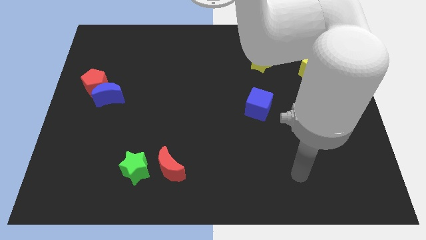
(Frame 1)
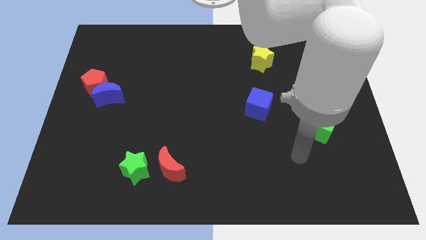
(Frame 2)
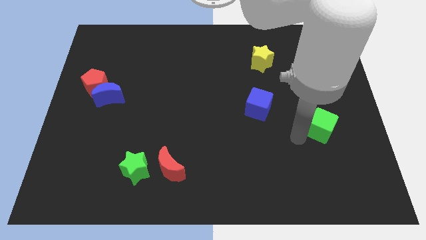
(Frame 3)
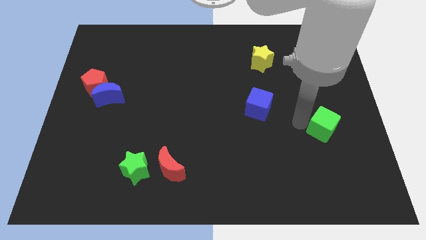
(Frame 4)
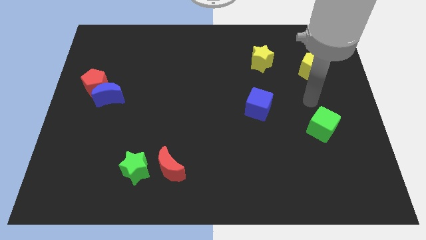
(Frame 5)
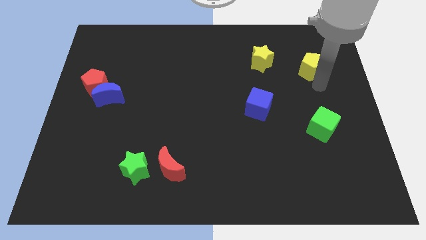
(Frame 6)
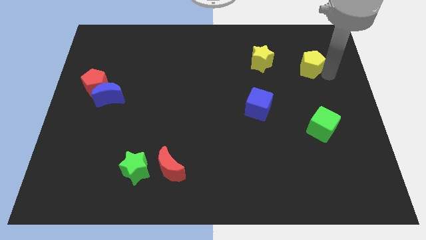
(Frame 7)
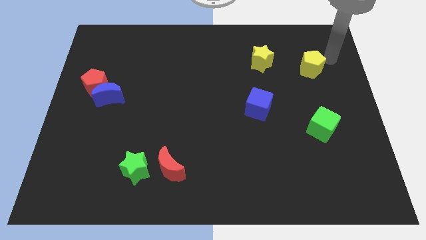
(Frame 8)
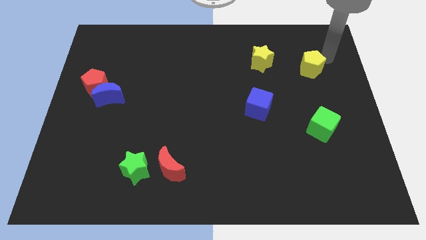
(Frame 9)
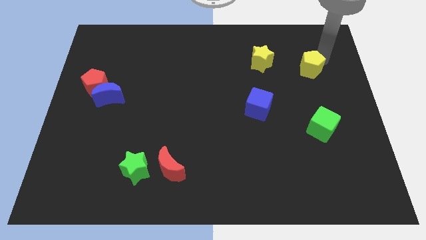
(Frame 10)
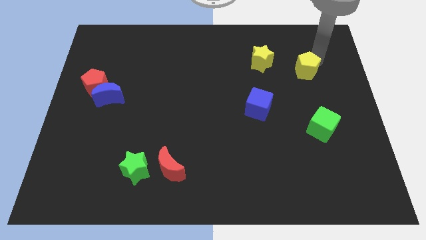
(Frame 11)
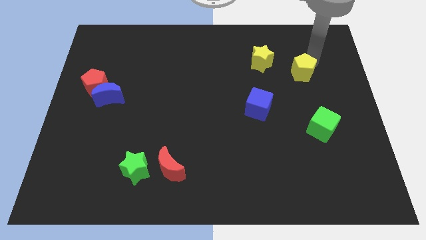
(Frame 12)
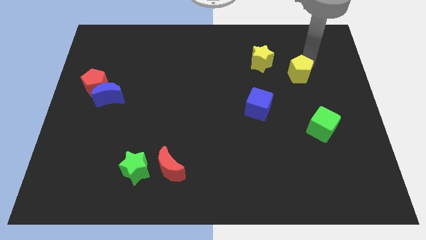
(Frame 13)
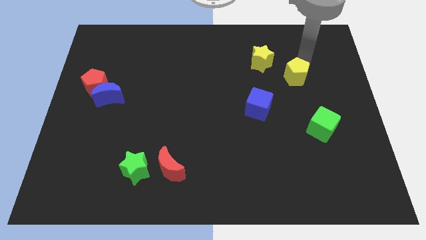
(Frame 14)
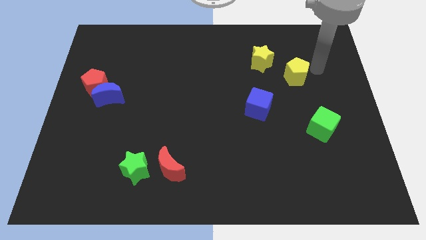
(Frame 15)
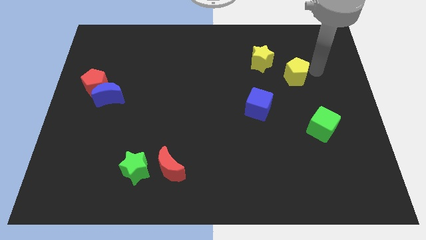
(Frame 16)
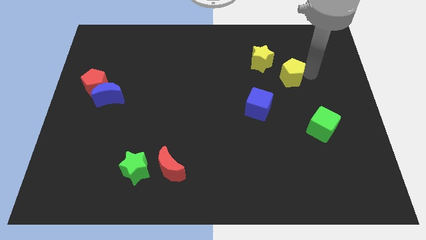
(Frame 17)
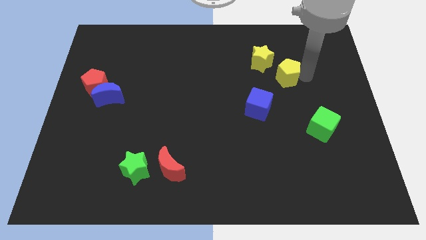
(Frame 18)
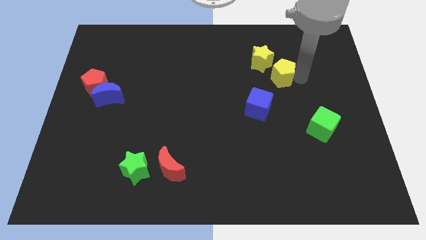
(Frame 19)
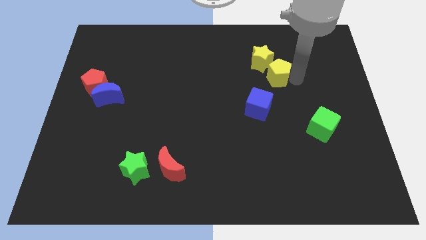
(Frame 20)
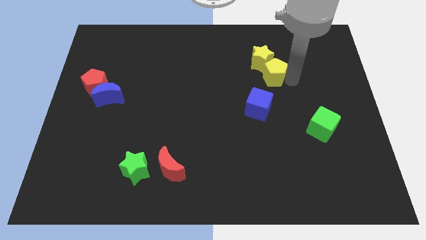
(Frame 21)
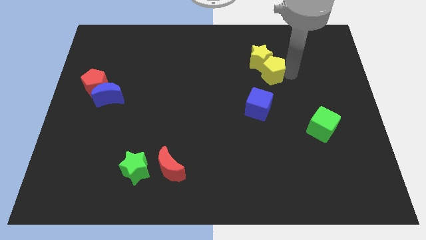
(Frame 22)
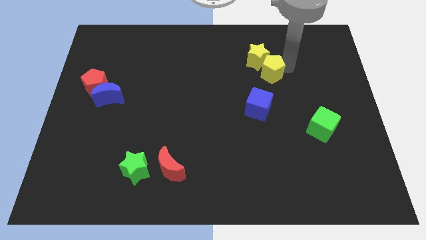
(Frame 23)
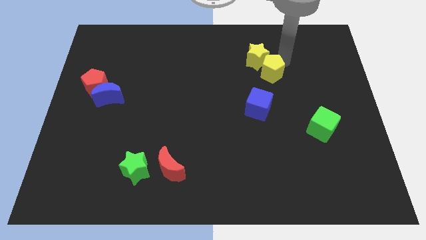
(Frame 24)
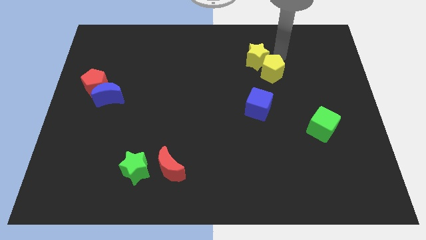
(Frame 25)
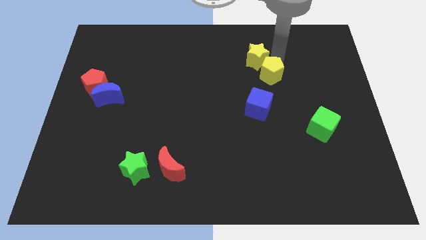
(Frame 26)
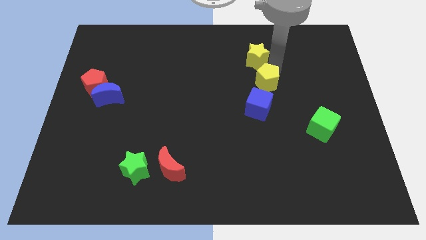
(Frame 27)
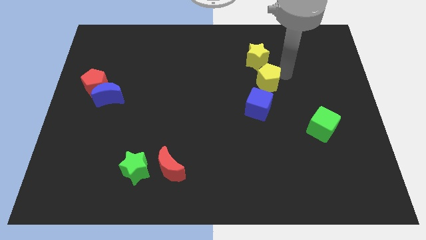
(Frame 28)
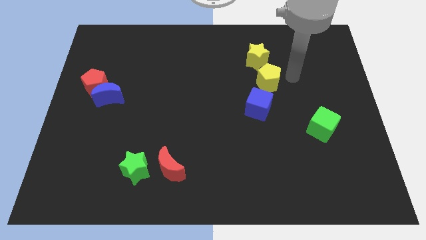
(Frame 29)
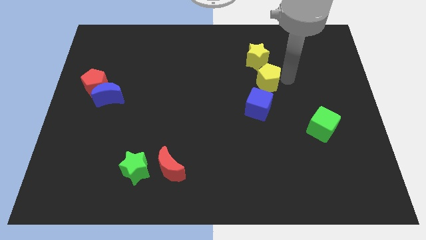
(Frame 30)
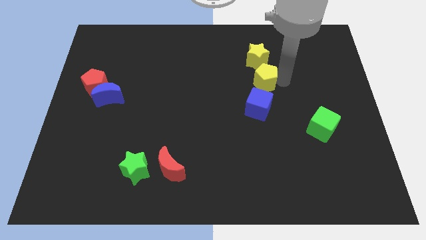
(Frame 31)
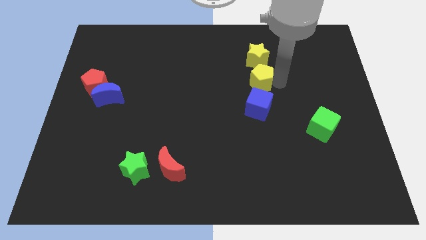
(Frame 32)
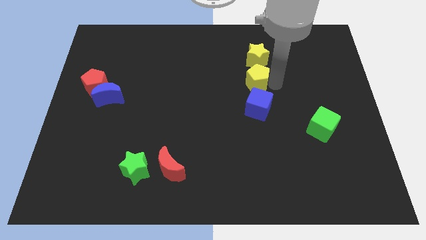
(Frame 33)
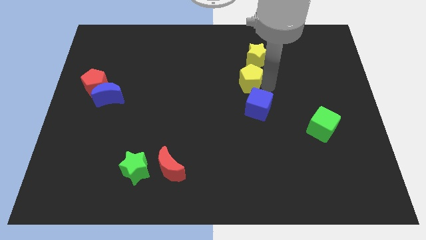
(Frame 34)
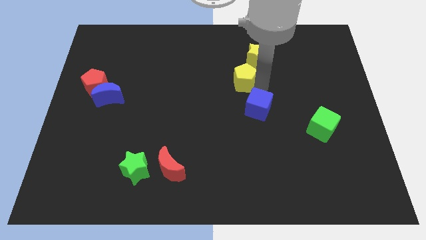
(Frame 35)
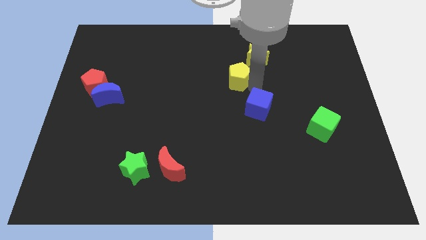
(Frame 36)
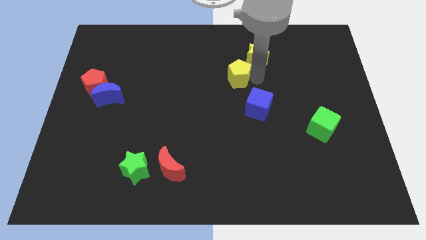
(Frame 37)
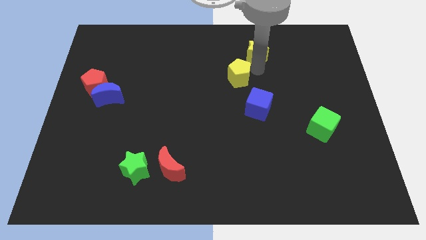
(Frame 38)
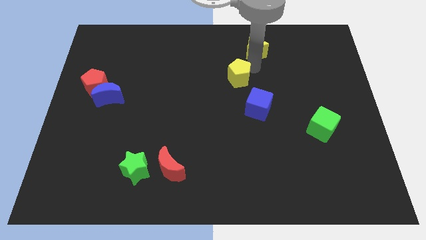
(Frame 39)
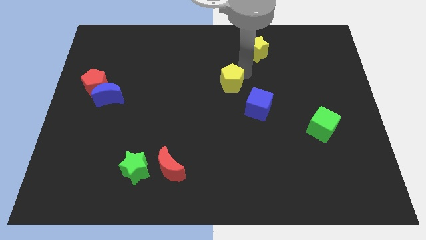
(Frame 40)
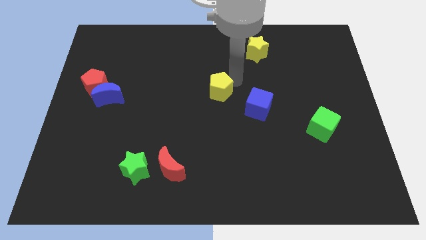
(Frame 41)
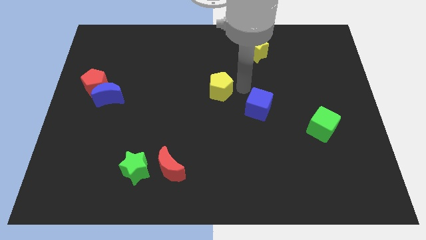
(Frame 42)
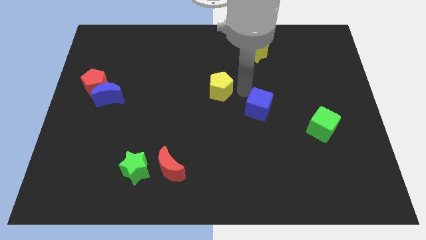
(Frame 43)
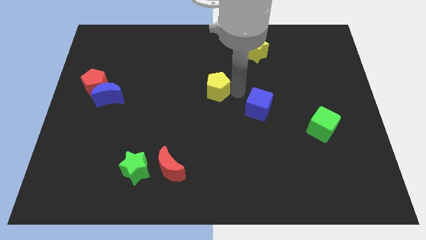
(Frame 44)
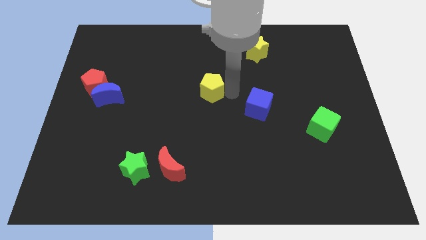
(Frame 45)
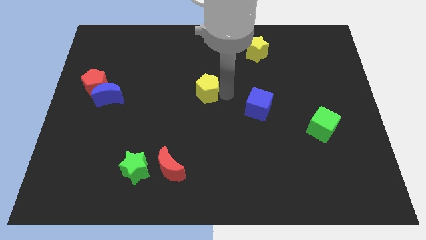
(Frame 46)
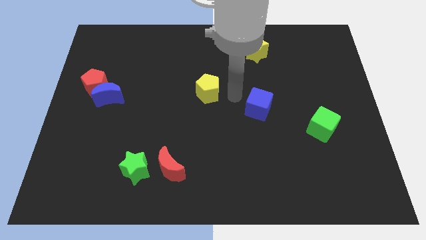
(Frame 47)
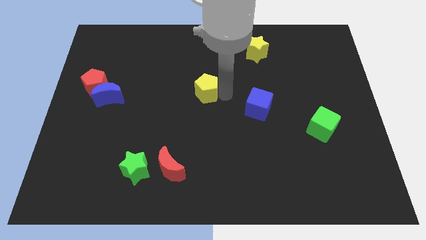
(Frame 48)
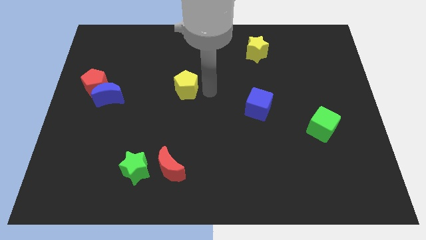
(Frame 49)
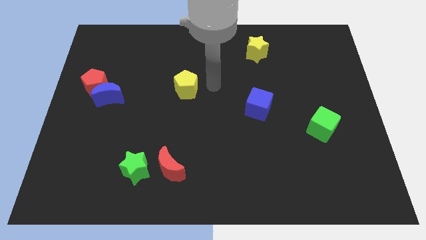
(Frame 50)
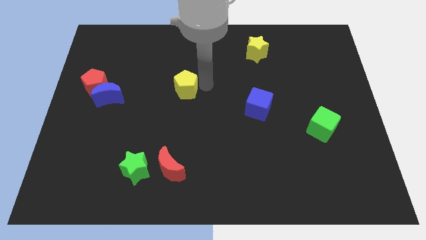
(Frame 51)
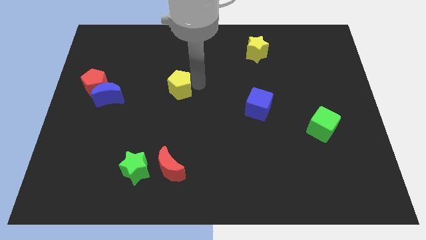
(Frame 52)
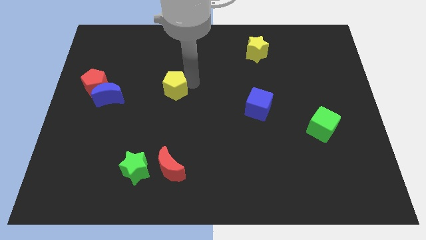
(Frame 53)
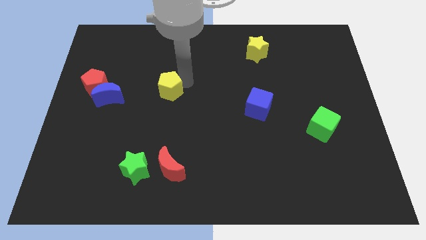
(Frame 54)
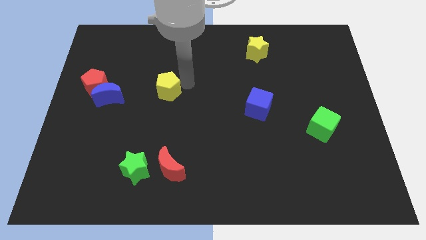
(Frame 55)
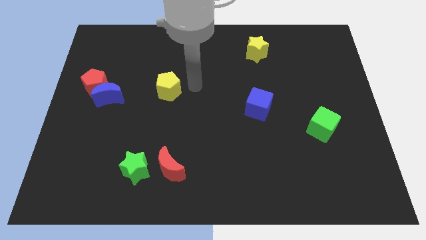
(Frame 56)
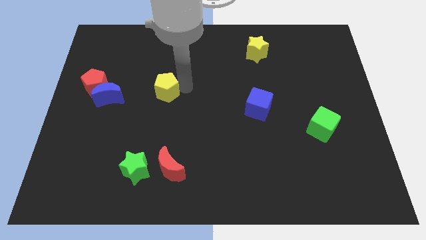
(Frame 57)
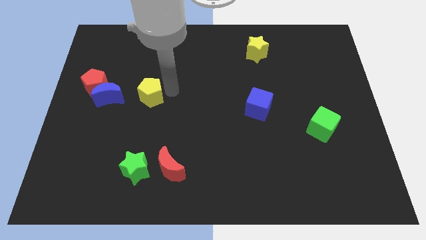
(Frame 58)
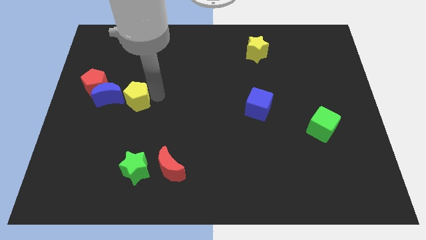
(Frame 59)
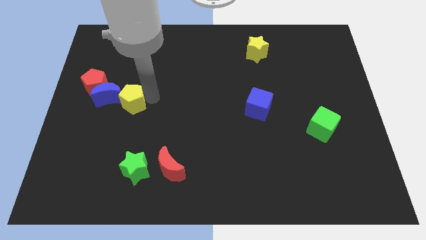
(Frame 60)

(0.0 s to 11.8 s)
move the yellow pentagon diagonally down and to the right of the red pentagon
